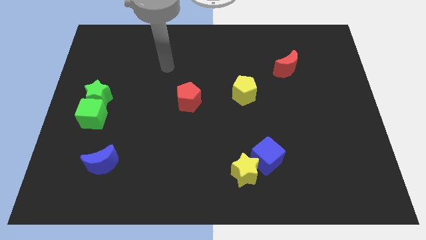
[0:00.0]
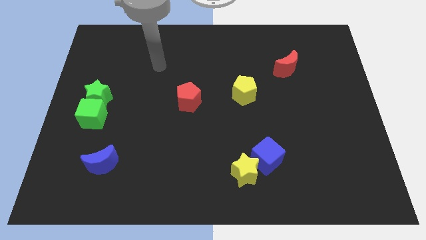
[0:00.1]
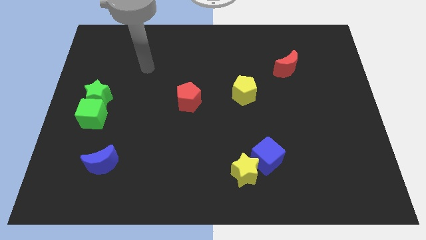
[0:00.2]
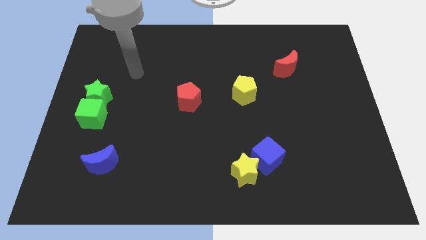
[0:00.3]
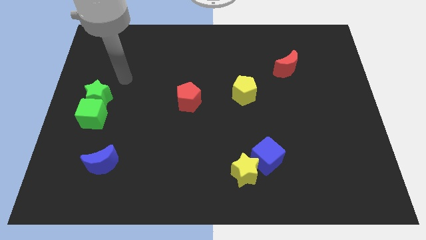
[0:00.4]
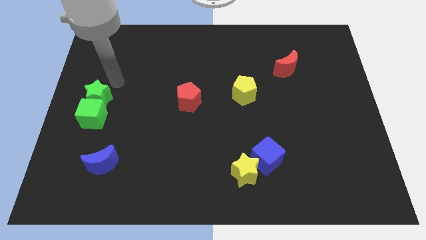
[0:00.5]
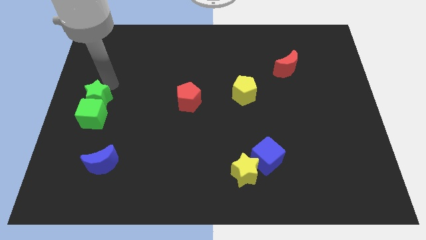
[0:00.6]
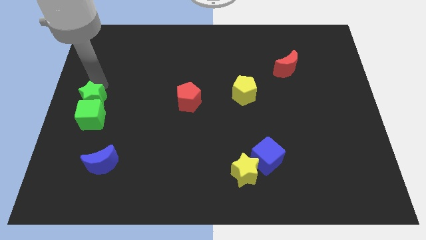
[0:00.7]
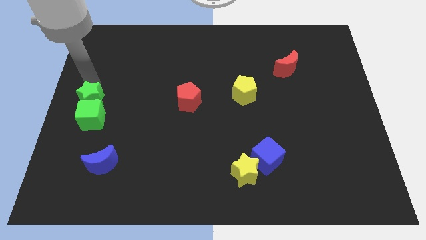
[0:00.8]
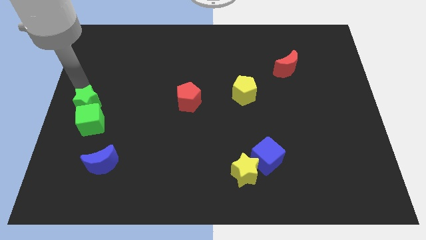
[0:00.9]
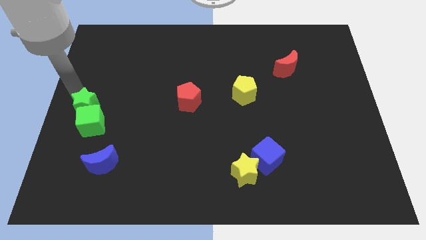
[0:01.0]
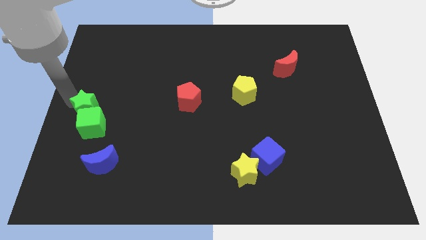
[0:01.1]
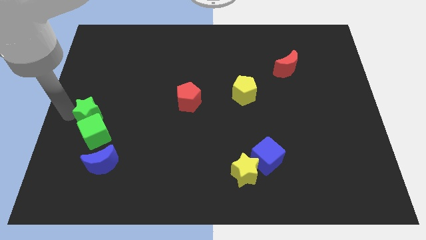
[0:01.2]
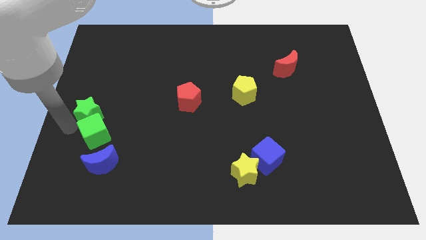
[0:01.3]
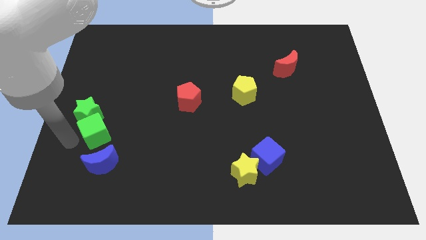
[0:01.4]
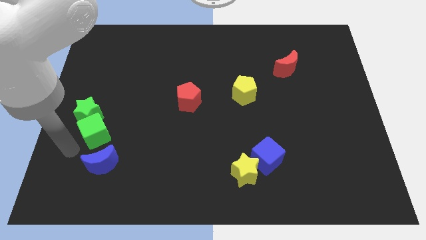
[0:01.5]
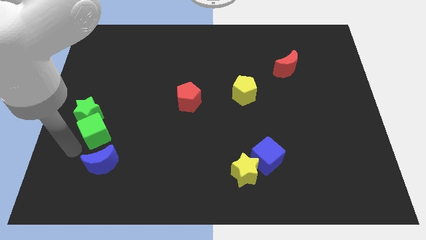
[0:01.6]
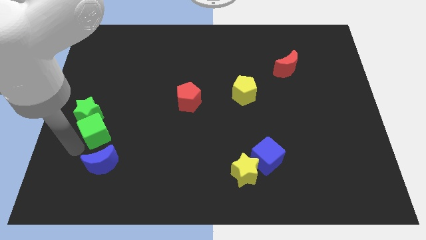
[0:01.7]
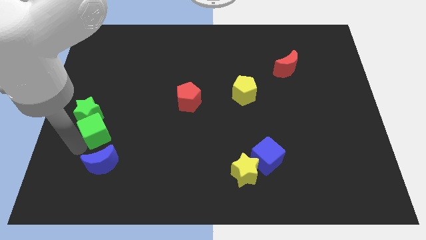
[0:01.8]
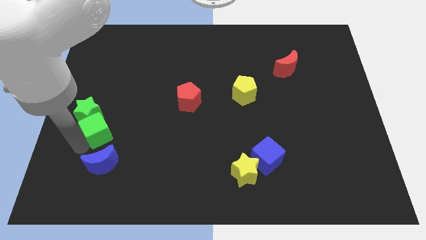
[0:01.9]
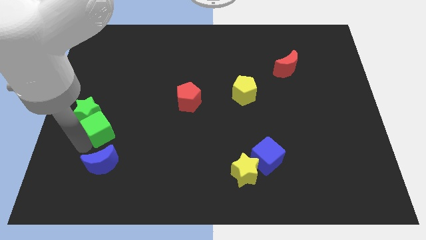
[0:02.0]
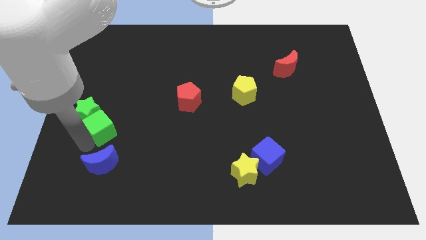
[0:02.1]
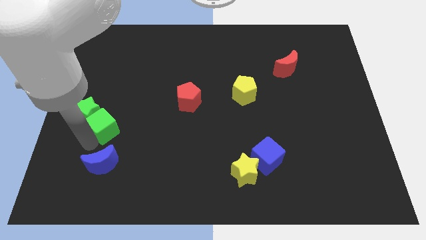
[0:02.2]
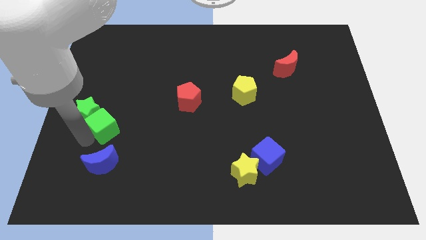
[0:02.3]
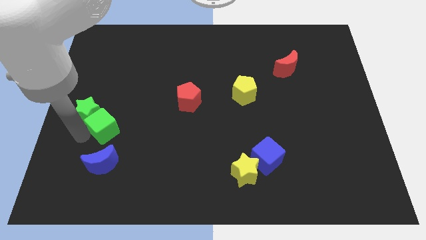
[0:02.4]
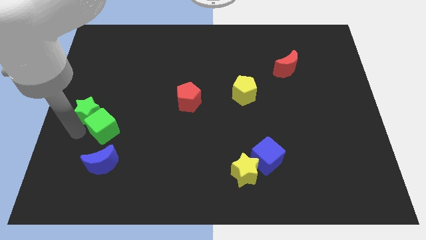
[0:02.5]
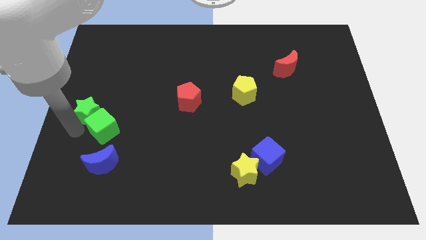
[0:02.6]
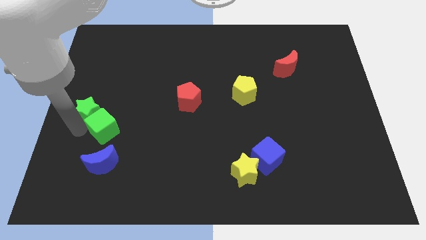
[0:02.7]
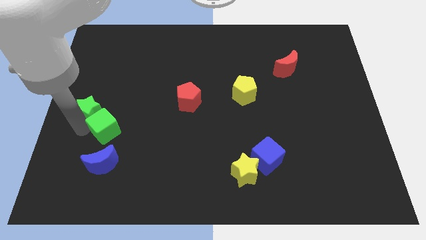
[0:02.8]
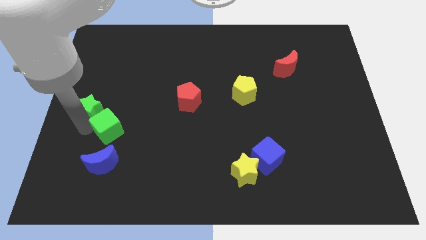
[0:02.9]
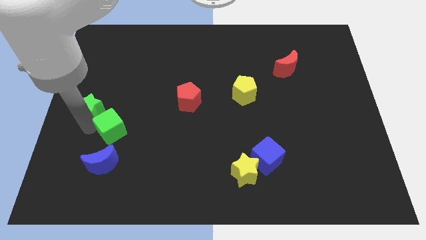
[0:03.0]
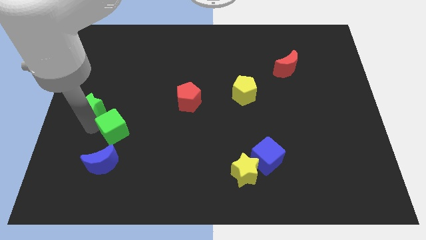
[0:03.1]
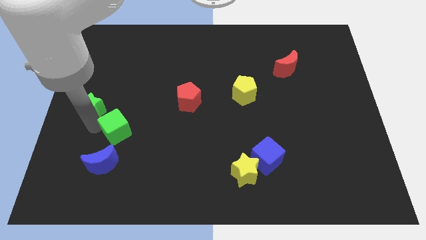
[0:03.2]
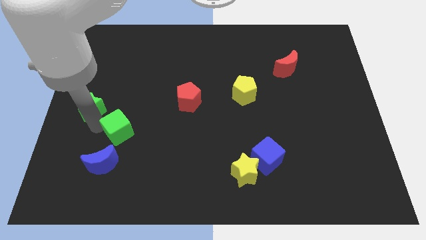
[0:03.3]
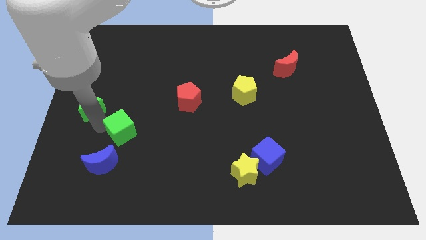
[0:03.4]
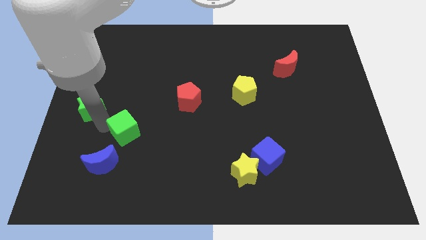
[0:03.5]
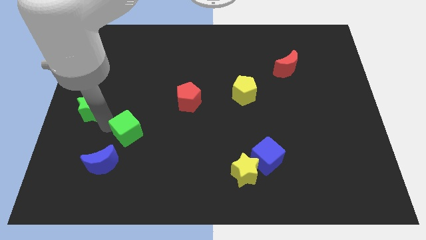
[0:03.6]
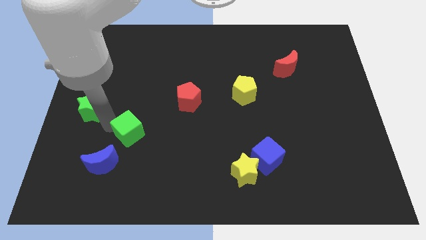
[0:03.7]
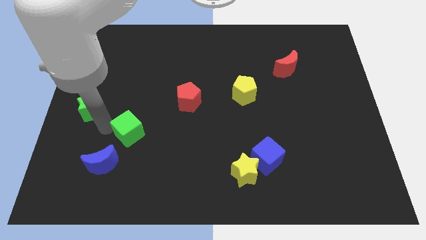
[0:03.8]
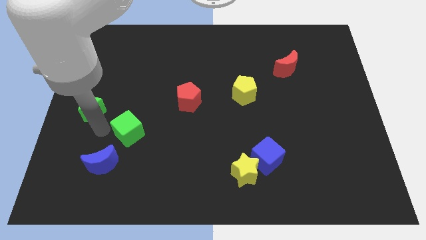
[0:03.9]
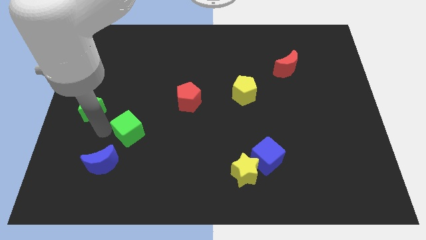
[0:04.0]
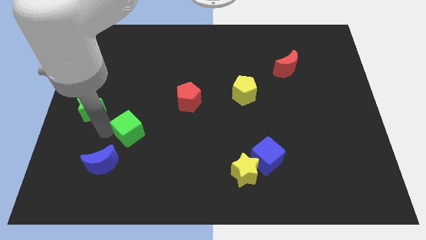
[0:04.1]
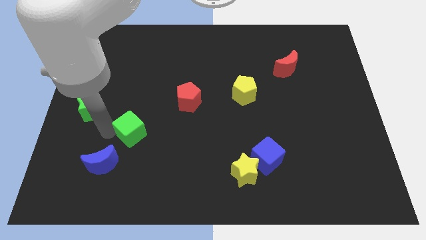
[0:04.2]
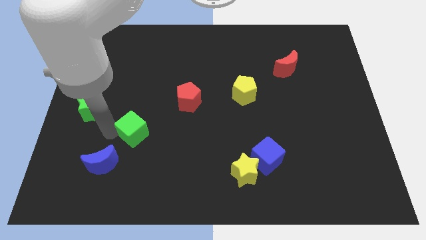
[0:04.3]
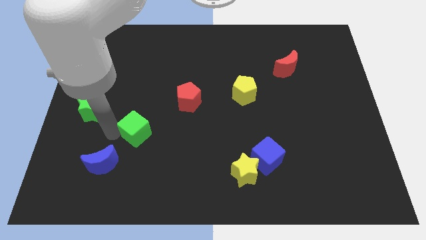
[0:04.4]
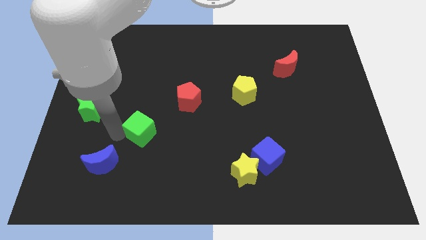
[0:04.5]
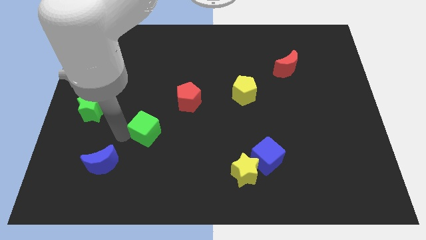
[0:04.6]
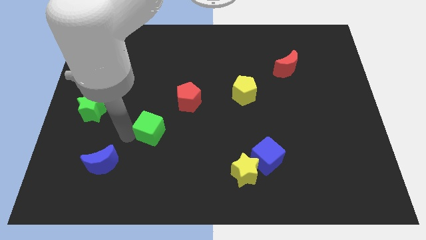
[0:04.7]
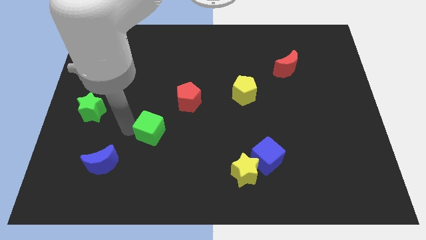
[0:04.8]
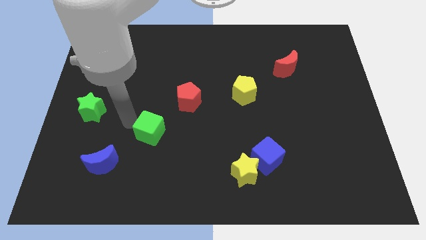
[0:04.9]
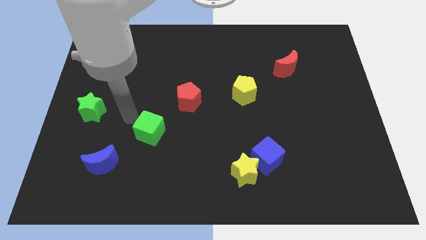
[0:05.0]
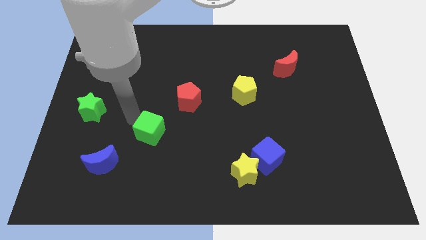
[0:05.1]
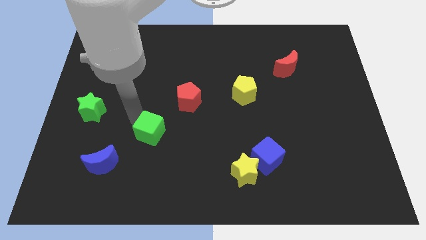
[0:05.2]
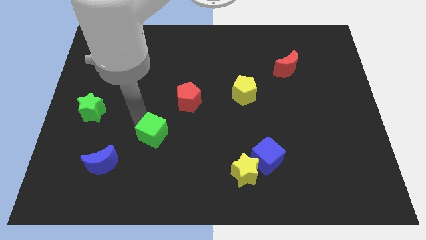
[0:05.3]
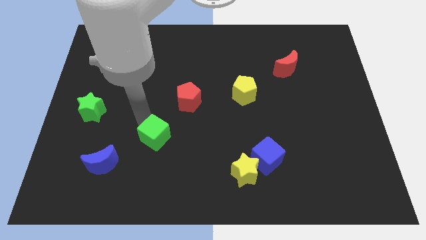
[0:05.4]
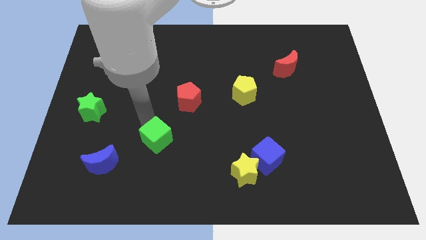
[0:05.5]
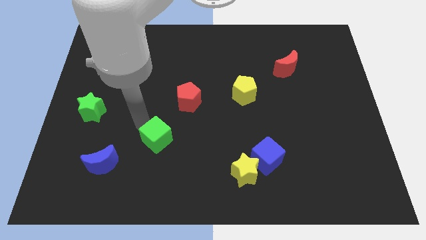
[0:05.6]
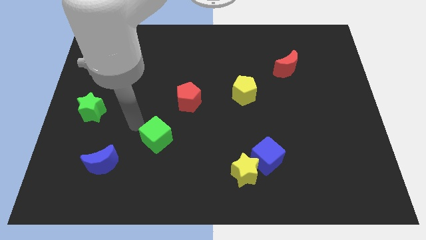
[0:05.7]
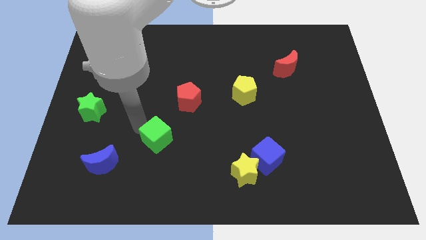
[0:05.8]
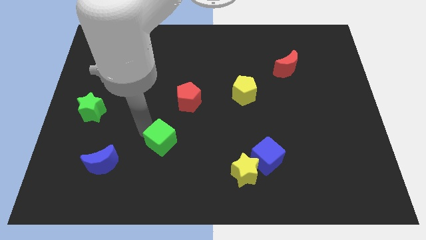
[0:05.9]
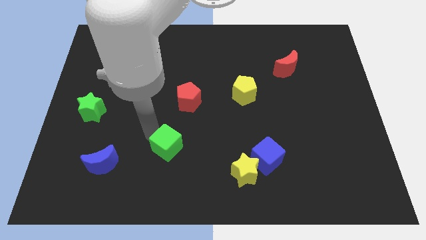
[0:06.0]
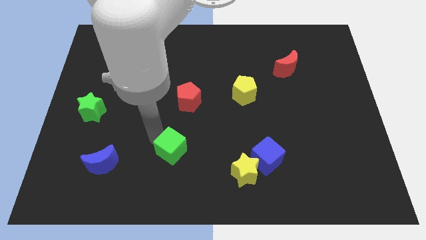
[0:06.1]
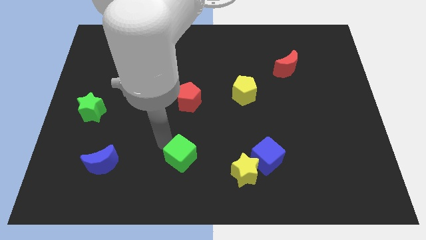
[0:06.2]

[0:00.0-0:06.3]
move the green cube left of the yellow star
